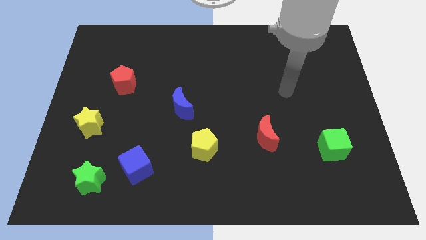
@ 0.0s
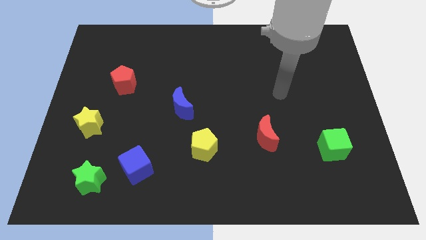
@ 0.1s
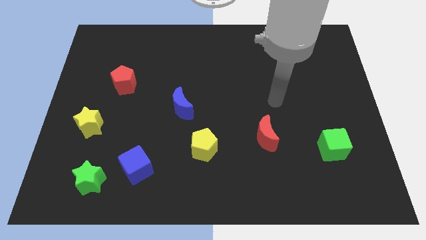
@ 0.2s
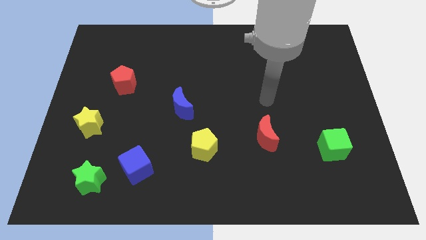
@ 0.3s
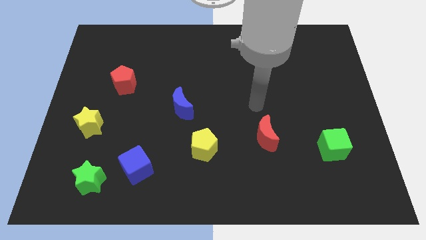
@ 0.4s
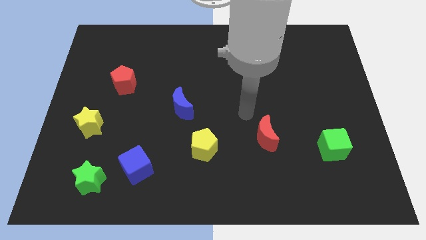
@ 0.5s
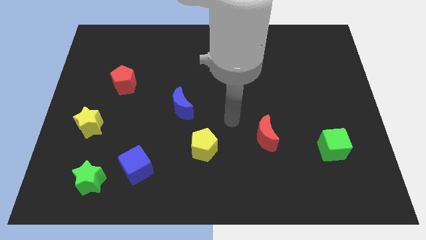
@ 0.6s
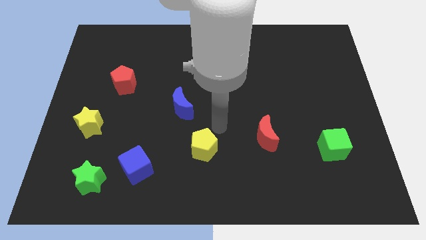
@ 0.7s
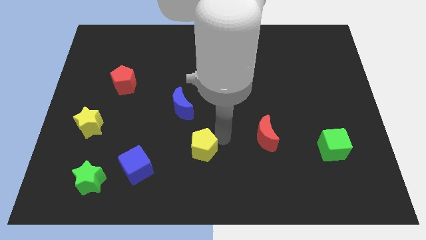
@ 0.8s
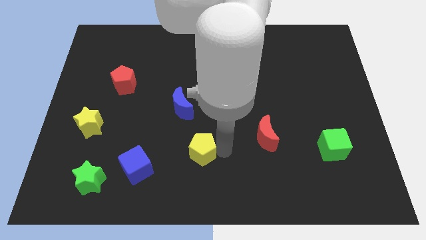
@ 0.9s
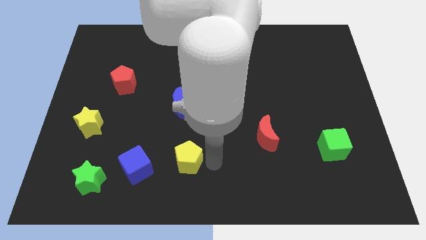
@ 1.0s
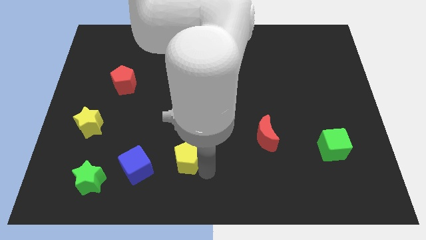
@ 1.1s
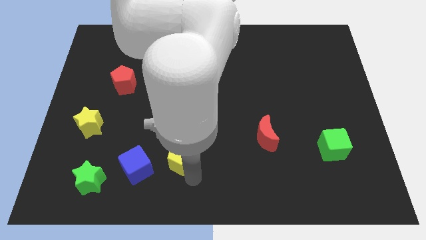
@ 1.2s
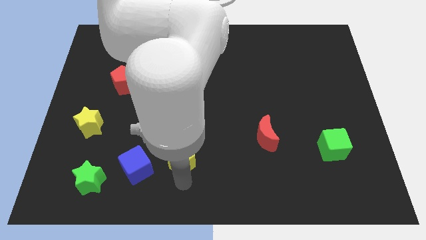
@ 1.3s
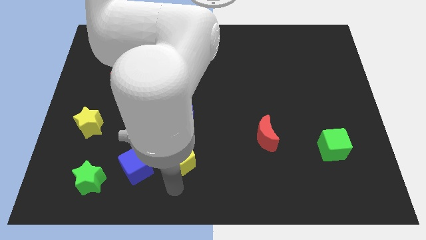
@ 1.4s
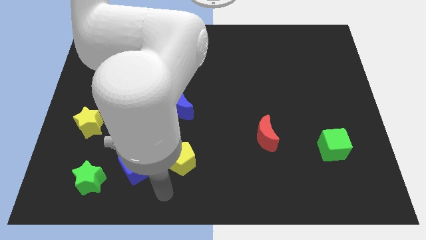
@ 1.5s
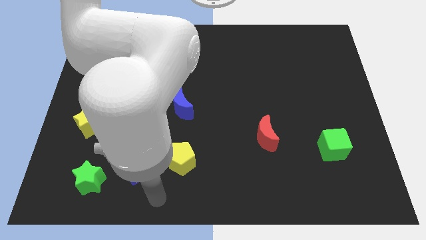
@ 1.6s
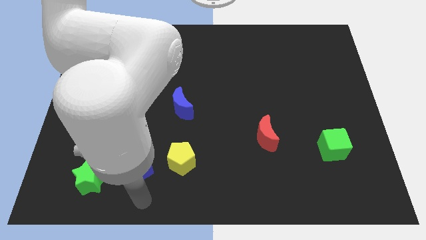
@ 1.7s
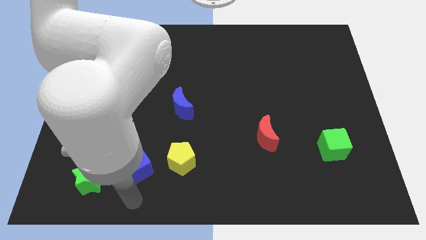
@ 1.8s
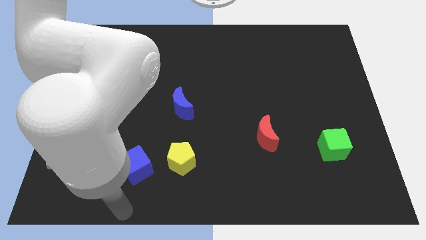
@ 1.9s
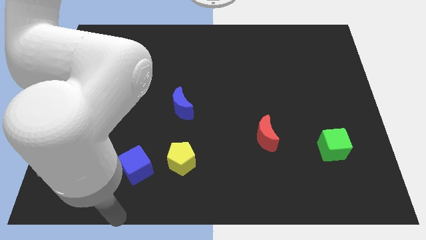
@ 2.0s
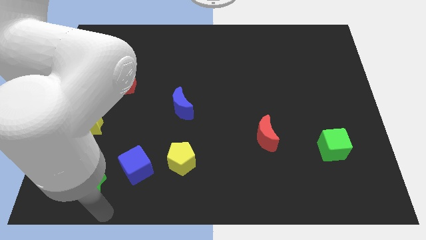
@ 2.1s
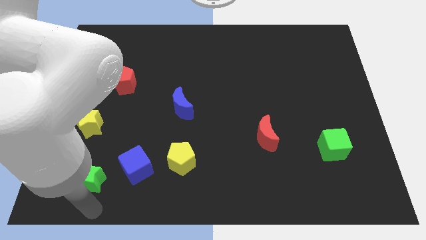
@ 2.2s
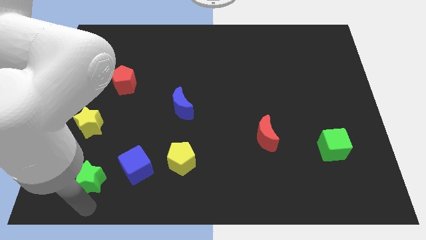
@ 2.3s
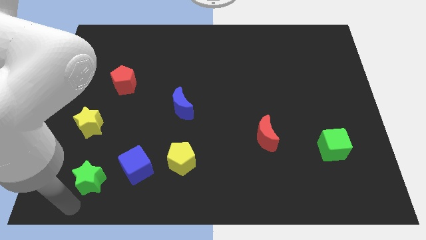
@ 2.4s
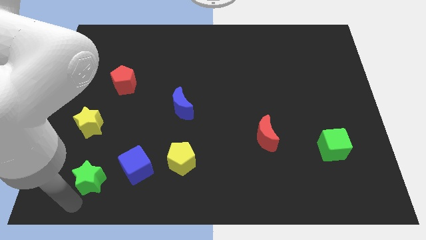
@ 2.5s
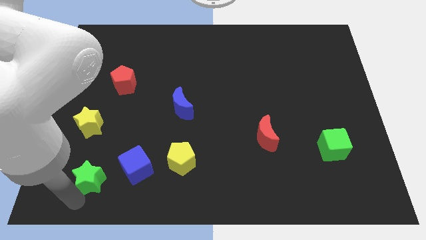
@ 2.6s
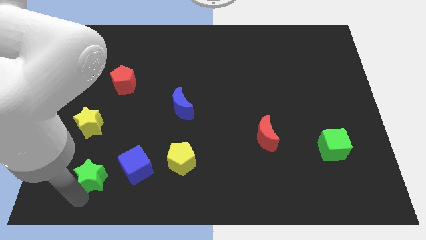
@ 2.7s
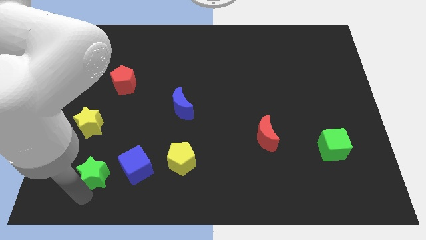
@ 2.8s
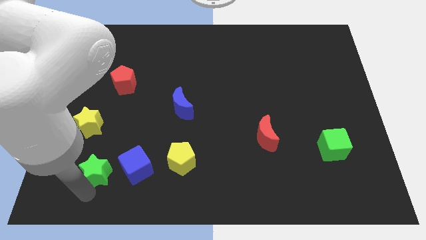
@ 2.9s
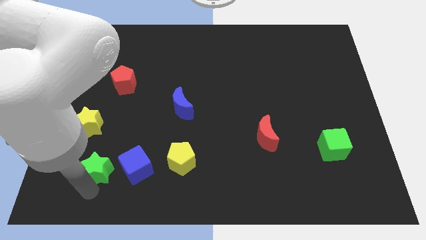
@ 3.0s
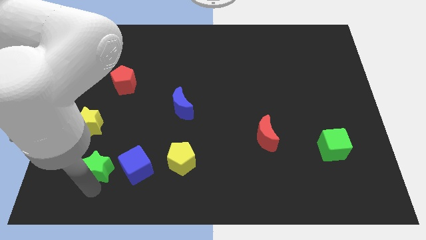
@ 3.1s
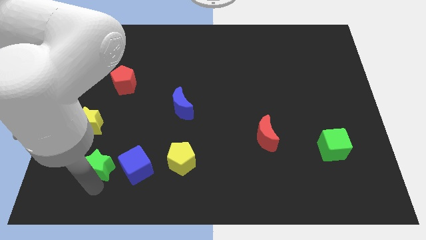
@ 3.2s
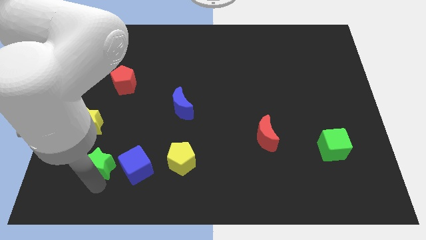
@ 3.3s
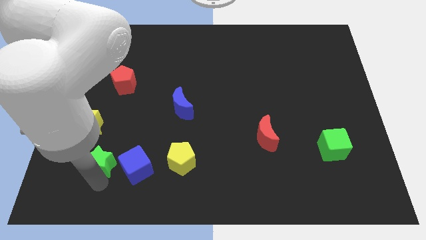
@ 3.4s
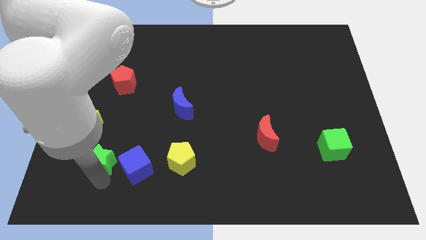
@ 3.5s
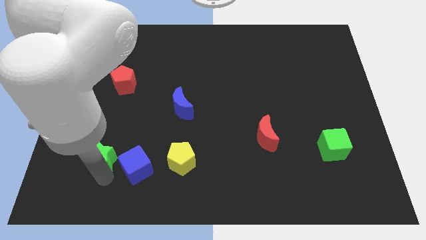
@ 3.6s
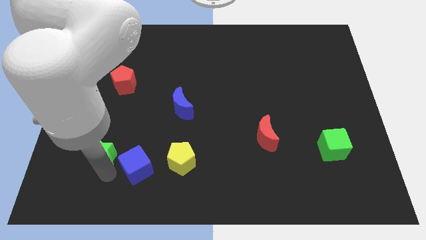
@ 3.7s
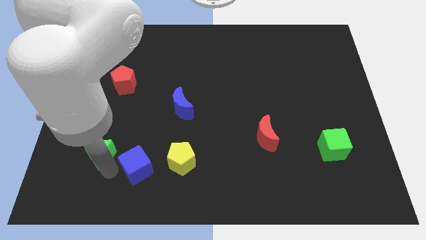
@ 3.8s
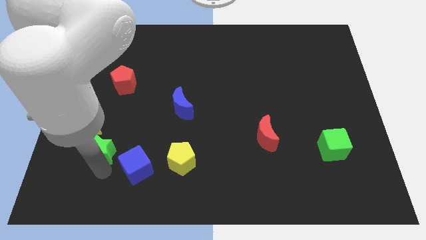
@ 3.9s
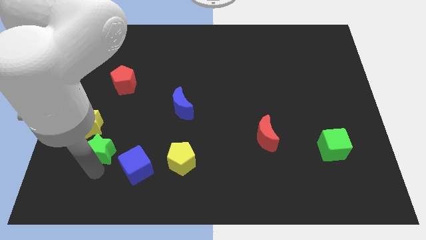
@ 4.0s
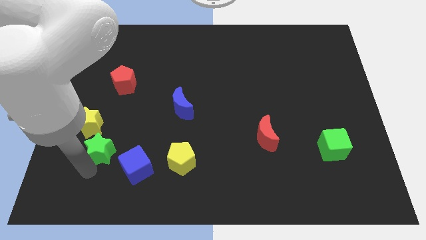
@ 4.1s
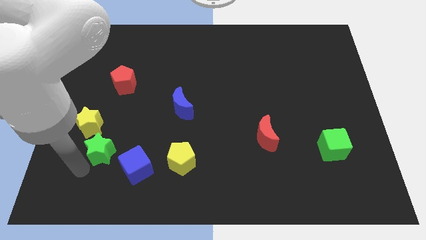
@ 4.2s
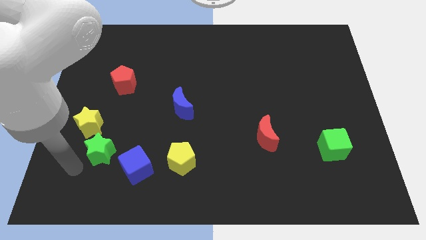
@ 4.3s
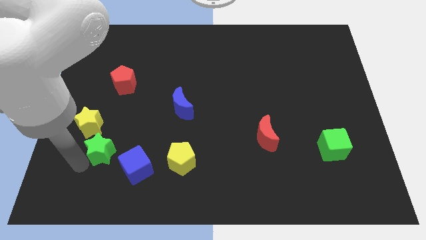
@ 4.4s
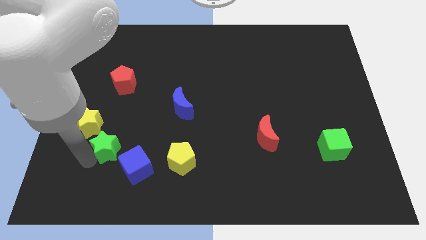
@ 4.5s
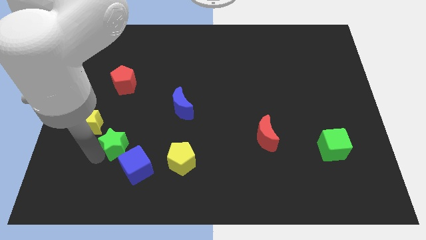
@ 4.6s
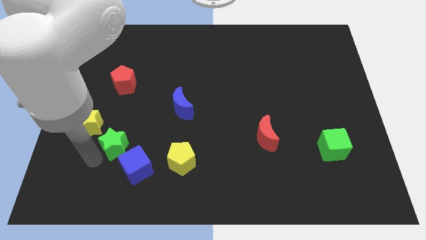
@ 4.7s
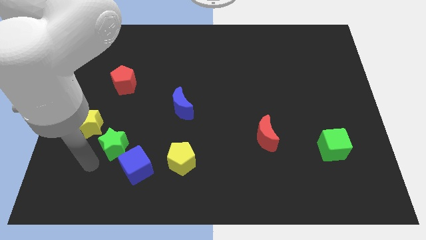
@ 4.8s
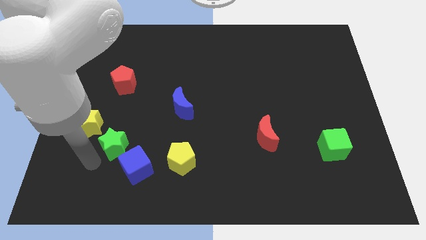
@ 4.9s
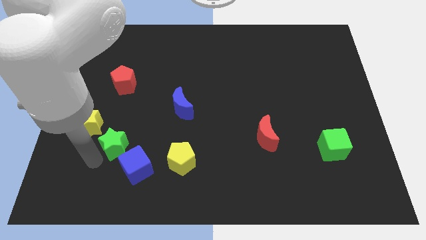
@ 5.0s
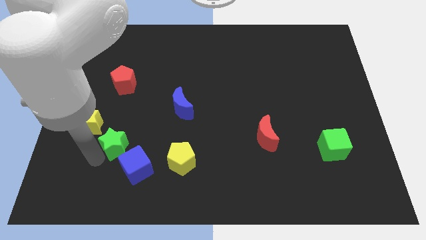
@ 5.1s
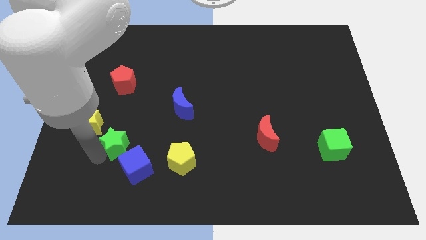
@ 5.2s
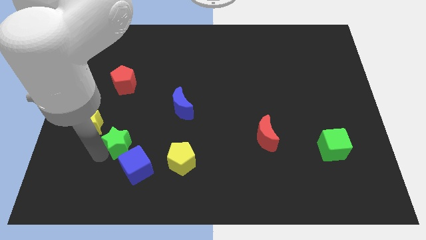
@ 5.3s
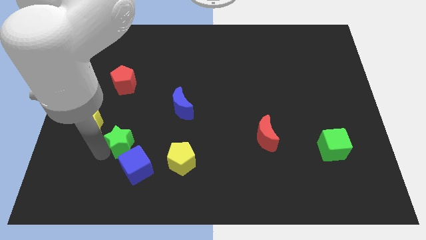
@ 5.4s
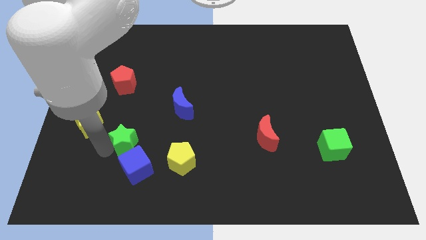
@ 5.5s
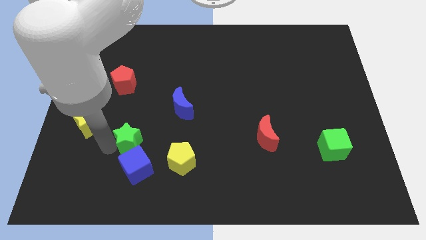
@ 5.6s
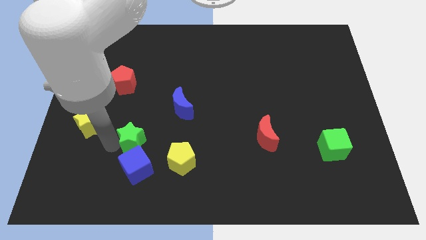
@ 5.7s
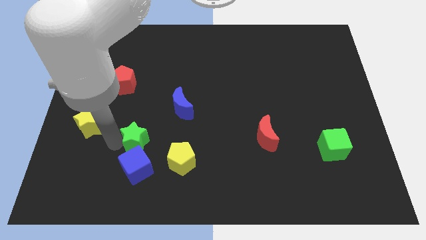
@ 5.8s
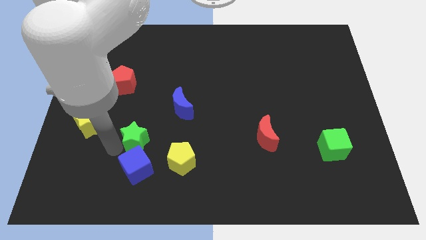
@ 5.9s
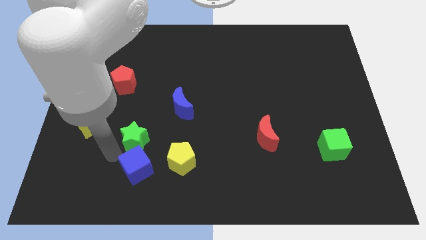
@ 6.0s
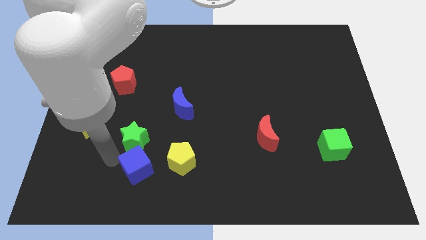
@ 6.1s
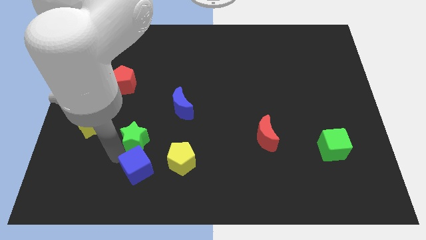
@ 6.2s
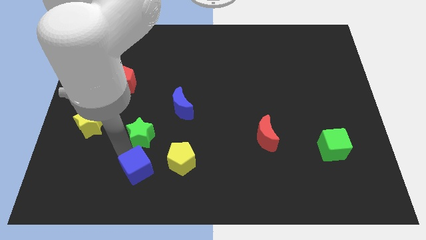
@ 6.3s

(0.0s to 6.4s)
slide the green star diagonally down and to the left of the blue moon

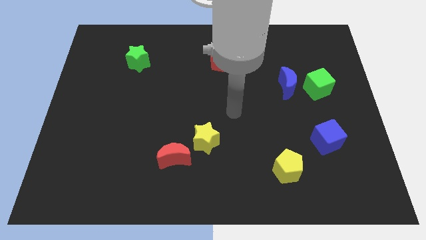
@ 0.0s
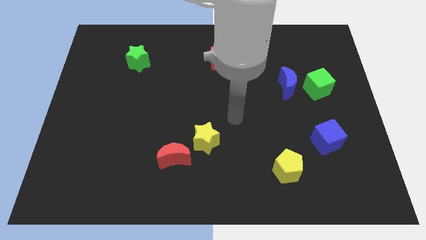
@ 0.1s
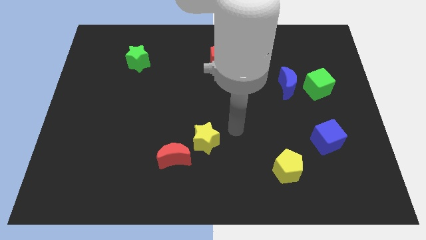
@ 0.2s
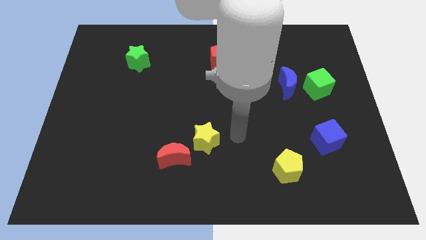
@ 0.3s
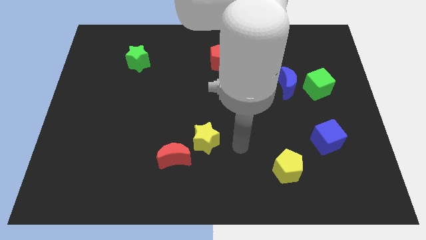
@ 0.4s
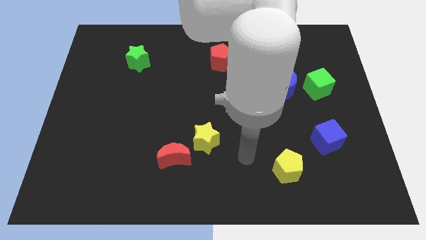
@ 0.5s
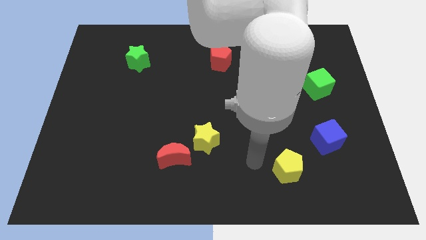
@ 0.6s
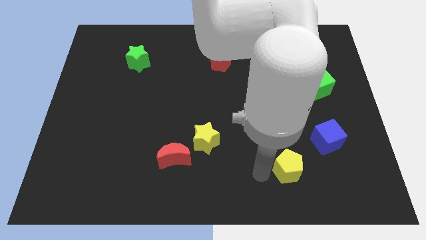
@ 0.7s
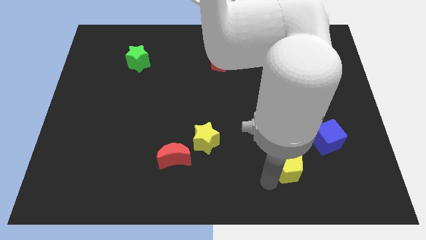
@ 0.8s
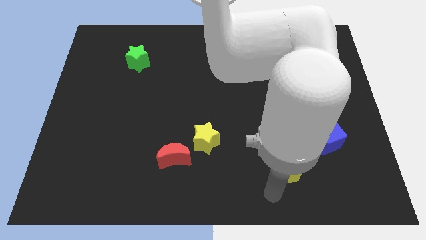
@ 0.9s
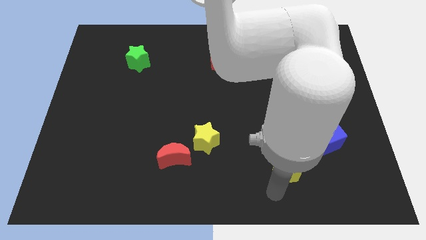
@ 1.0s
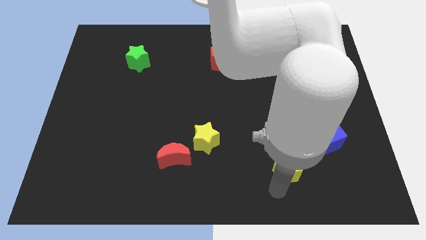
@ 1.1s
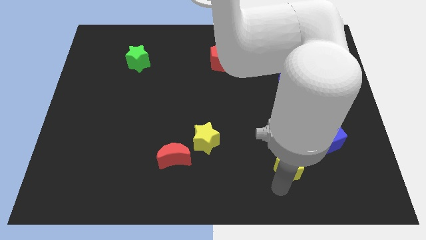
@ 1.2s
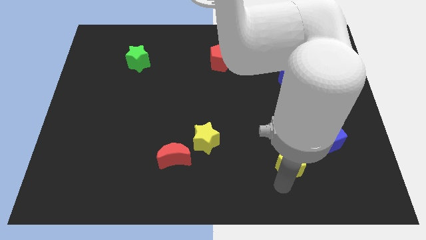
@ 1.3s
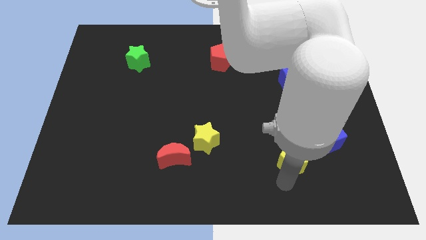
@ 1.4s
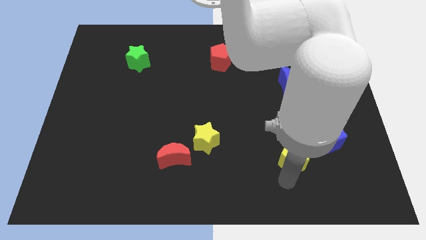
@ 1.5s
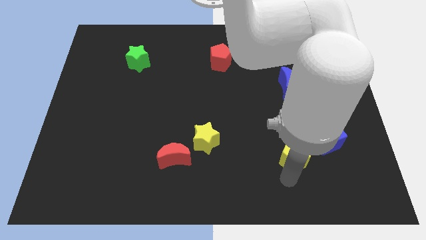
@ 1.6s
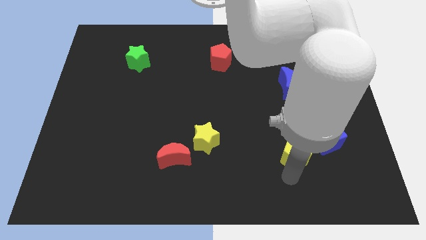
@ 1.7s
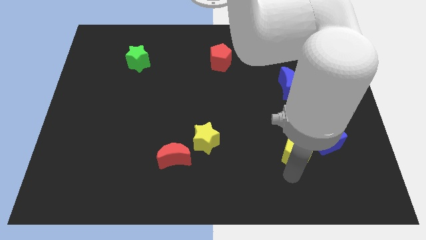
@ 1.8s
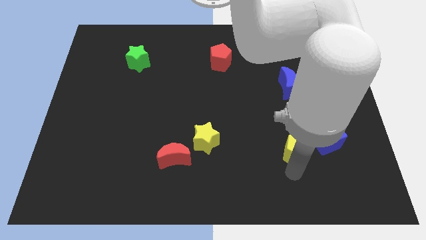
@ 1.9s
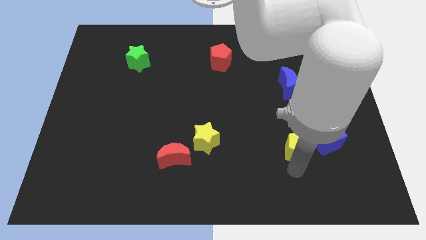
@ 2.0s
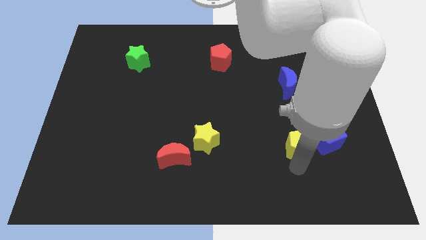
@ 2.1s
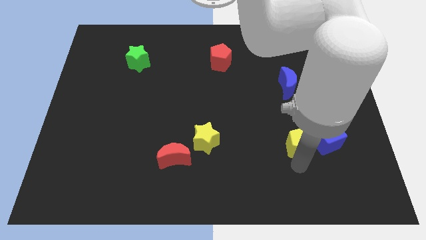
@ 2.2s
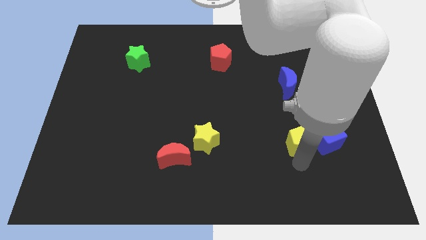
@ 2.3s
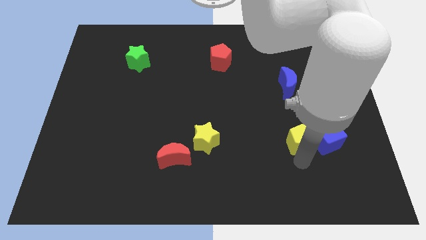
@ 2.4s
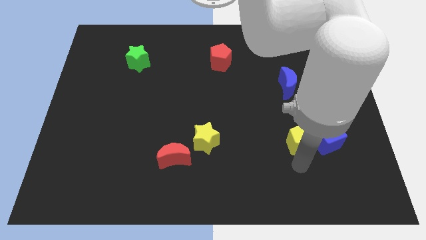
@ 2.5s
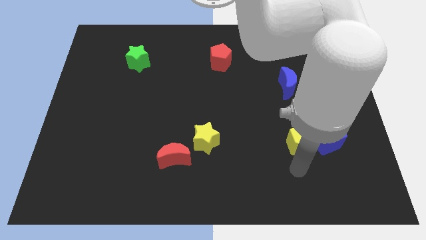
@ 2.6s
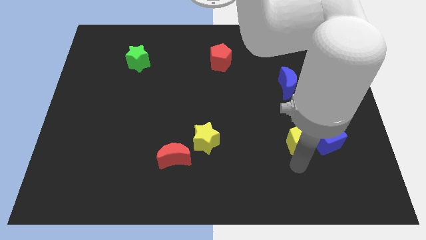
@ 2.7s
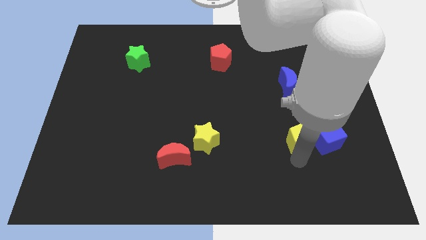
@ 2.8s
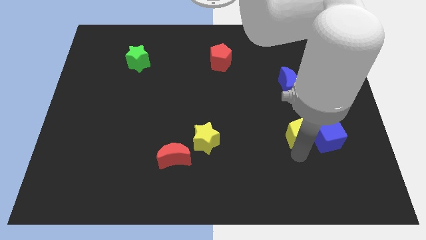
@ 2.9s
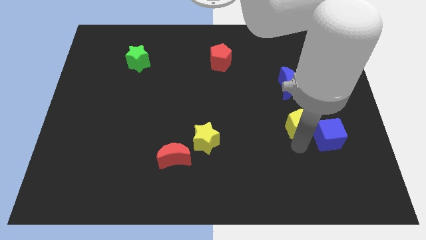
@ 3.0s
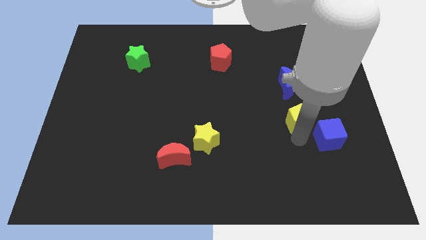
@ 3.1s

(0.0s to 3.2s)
push the yellow pentagon diagonally down and to the left of the green cube
